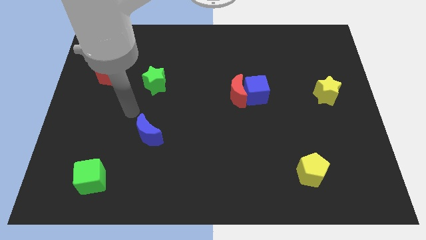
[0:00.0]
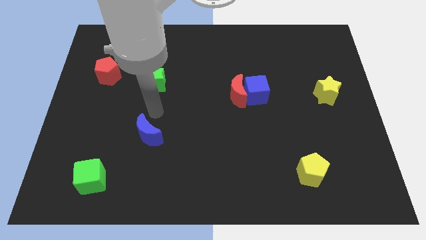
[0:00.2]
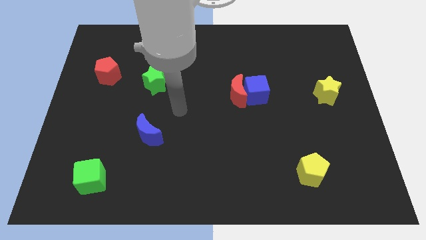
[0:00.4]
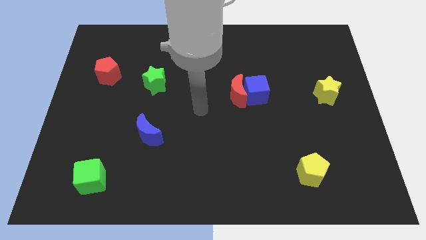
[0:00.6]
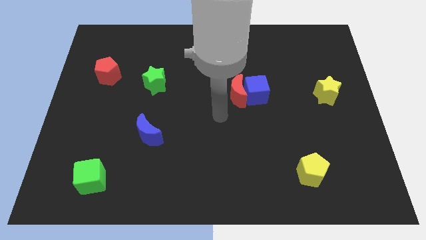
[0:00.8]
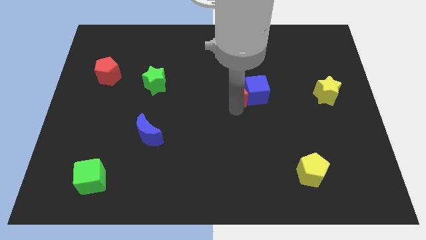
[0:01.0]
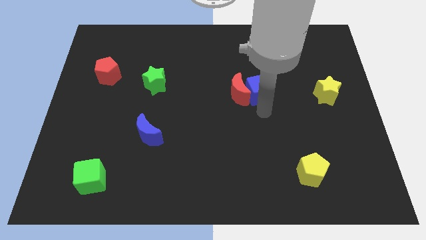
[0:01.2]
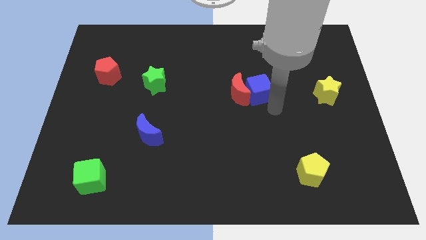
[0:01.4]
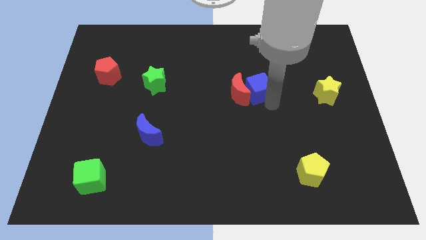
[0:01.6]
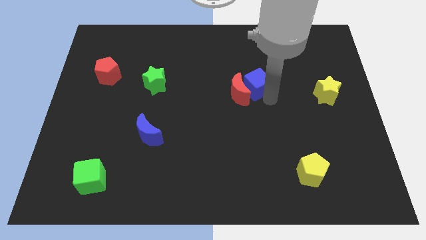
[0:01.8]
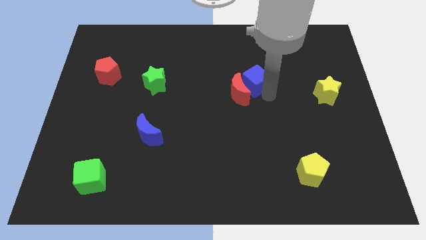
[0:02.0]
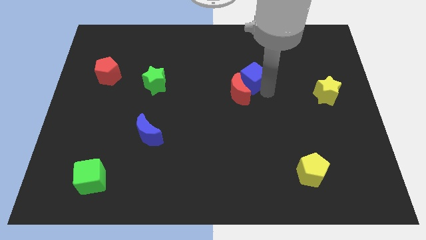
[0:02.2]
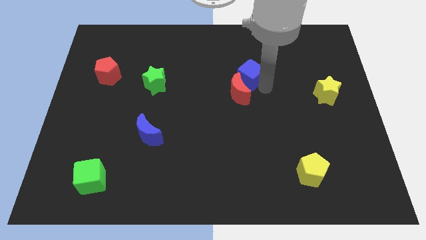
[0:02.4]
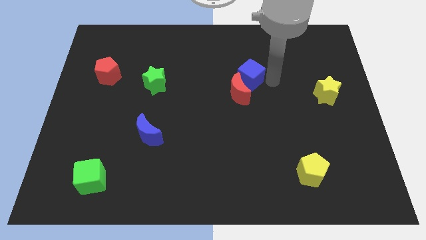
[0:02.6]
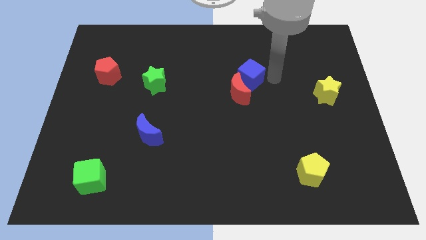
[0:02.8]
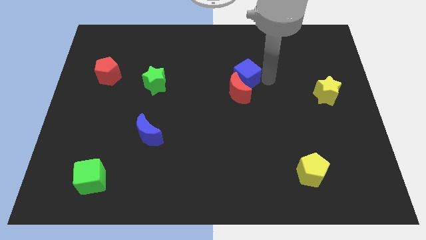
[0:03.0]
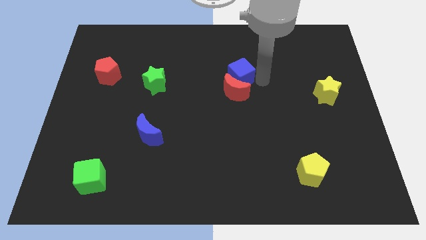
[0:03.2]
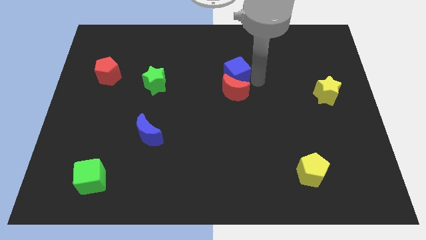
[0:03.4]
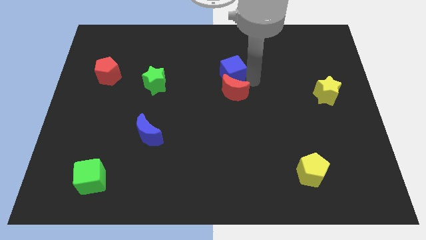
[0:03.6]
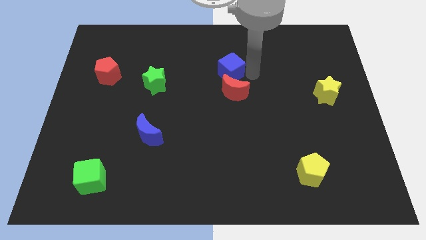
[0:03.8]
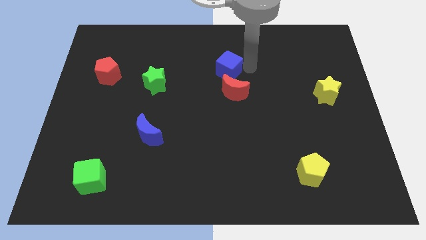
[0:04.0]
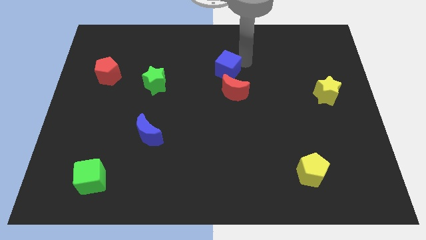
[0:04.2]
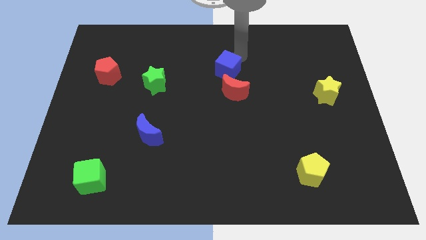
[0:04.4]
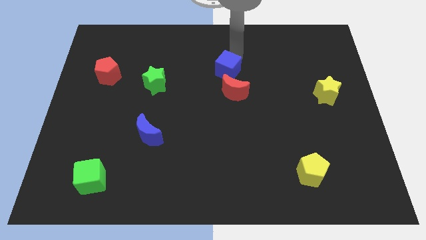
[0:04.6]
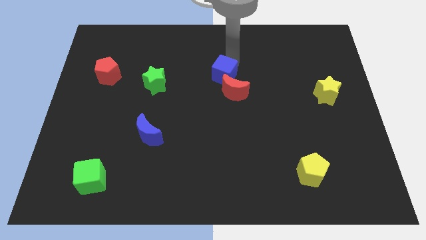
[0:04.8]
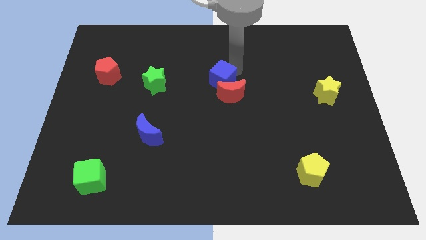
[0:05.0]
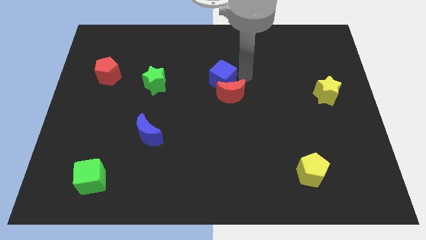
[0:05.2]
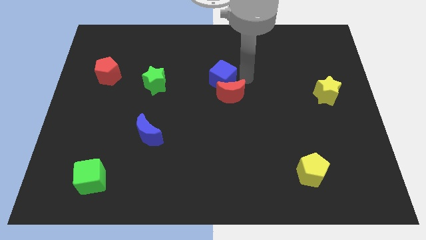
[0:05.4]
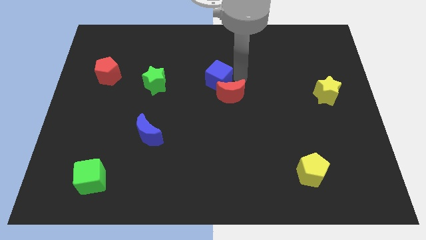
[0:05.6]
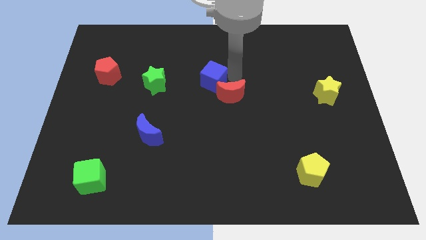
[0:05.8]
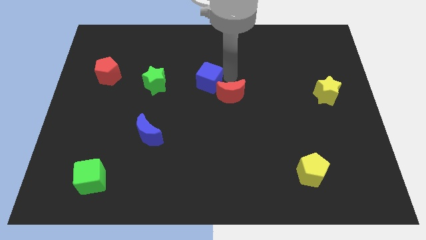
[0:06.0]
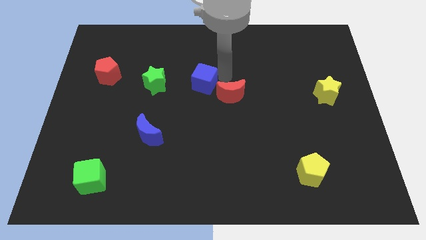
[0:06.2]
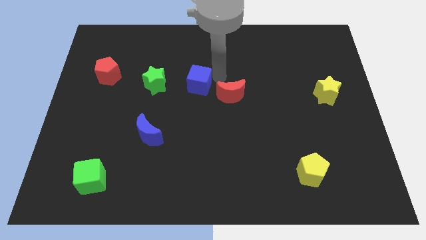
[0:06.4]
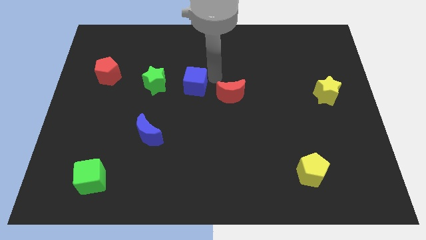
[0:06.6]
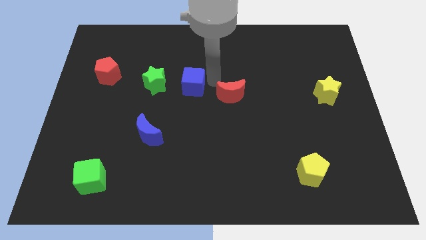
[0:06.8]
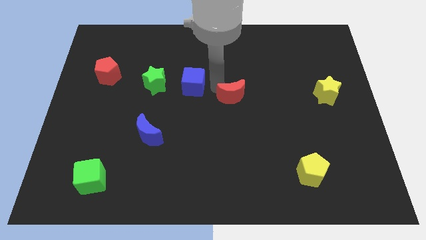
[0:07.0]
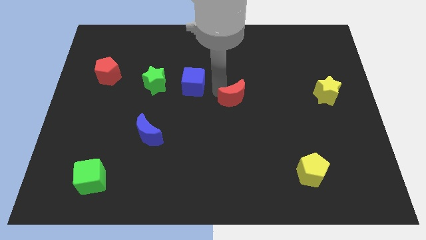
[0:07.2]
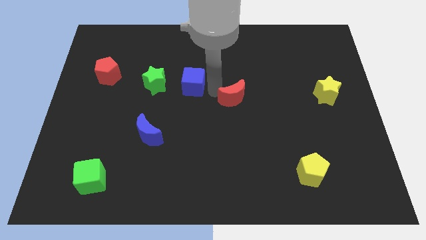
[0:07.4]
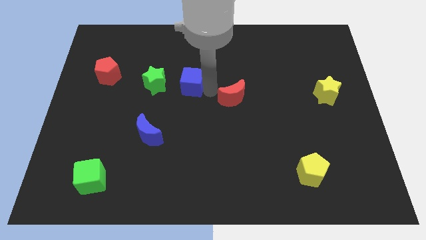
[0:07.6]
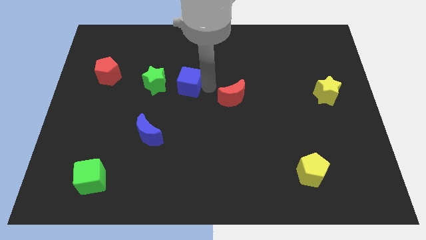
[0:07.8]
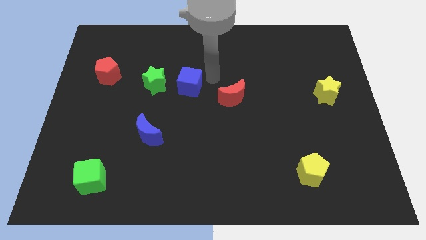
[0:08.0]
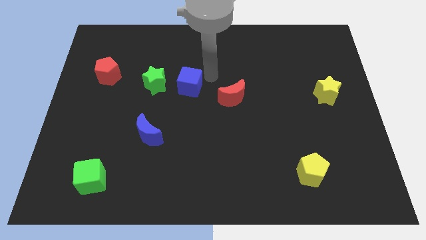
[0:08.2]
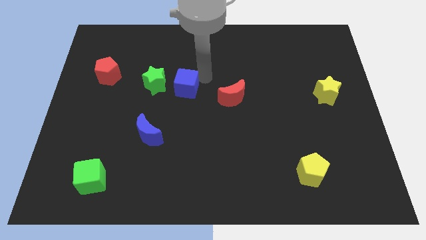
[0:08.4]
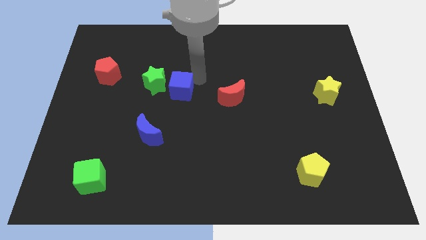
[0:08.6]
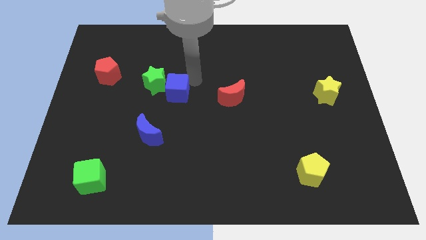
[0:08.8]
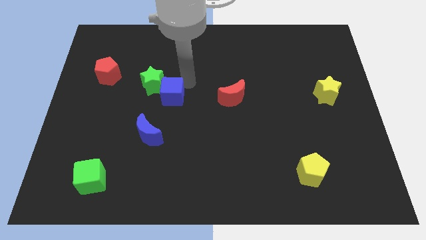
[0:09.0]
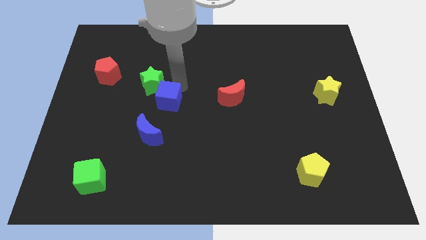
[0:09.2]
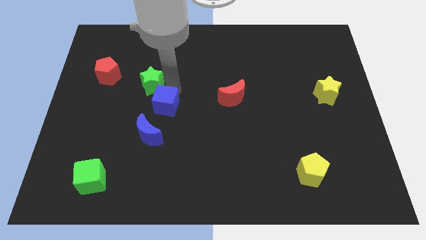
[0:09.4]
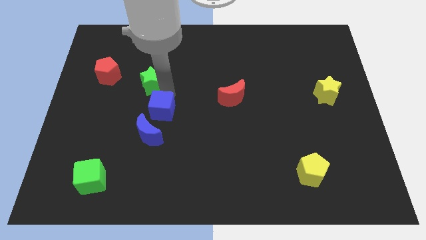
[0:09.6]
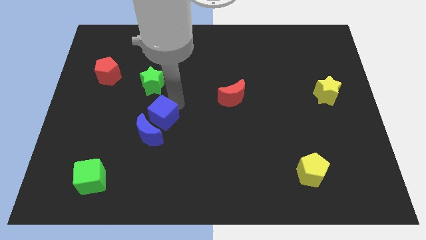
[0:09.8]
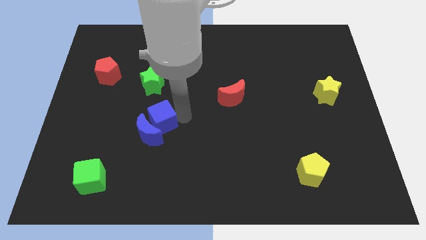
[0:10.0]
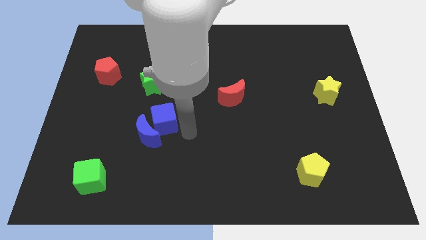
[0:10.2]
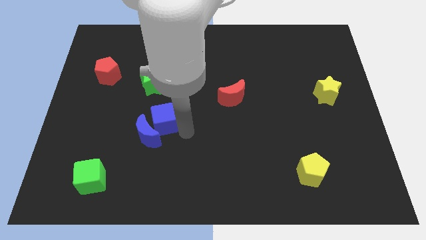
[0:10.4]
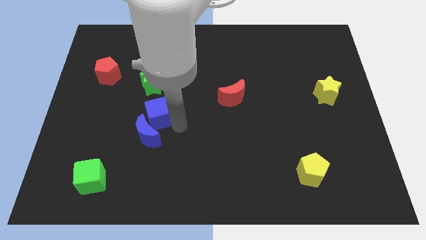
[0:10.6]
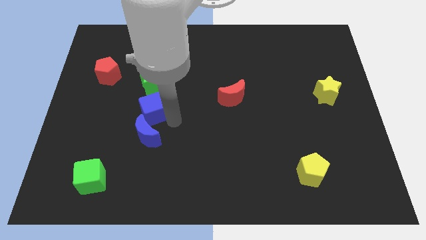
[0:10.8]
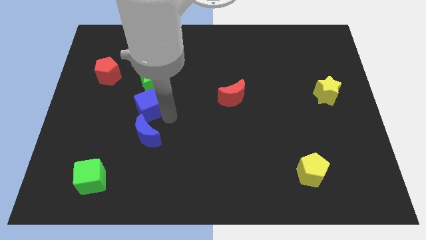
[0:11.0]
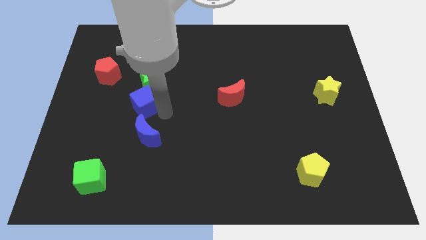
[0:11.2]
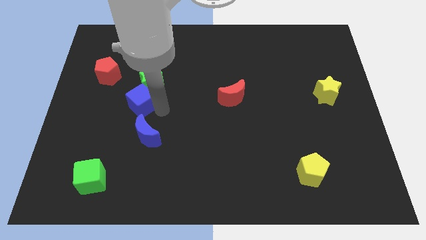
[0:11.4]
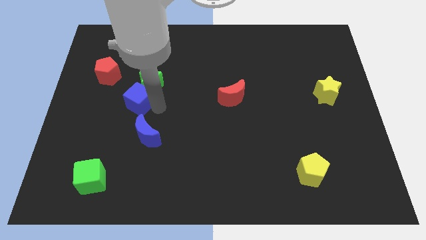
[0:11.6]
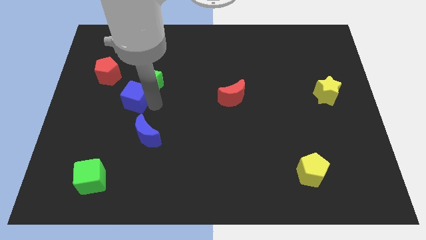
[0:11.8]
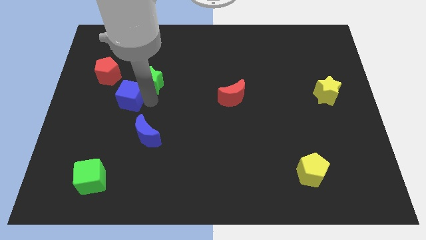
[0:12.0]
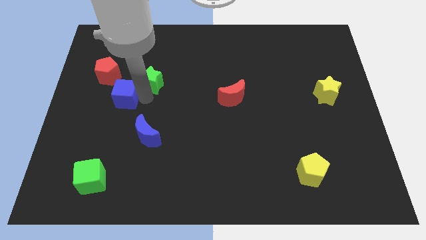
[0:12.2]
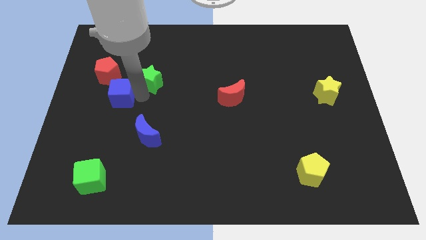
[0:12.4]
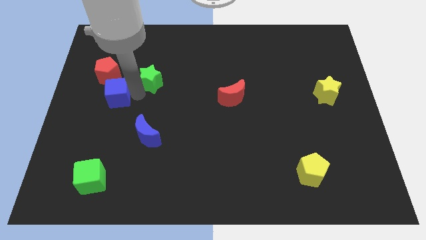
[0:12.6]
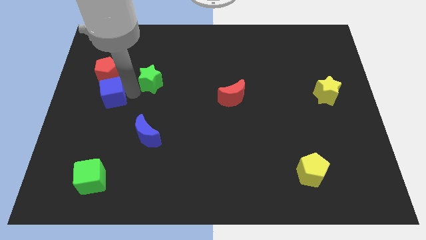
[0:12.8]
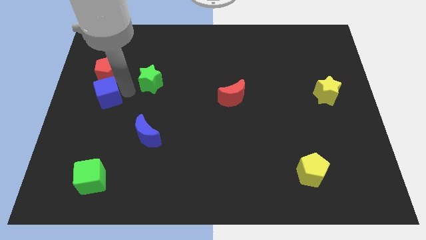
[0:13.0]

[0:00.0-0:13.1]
move the blue cube to the left side of the board
